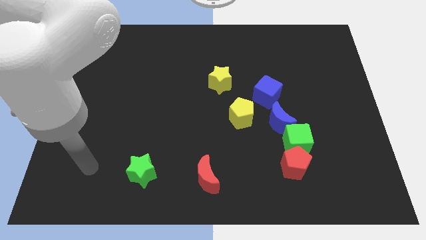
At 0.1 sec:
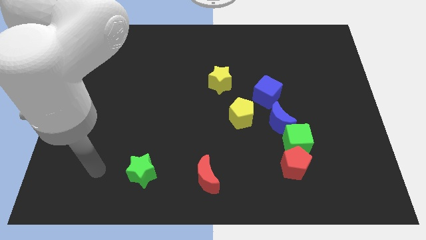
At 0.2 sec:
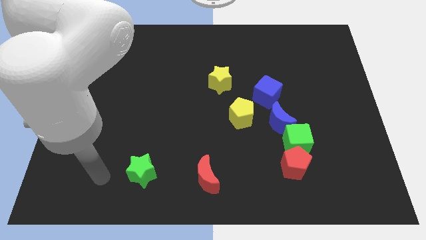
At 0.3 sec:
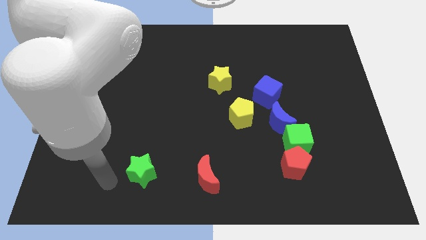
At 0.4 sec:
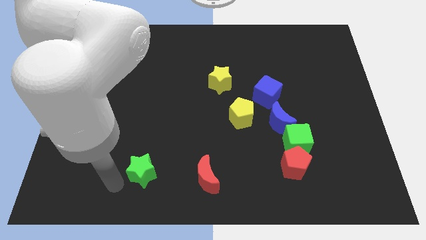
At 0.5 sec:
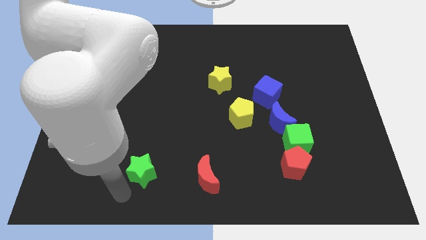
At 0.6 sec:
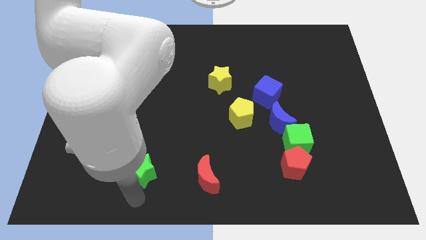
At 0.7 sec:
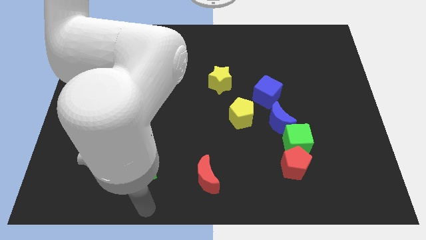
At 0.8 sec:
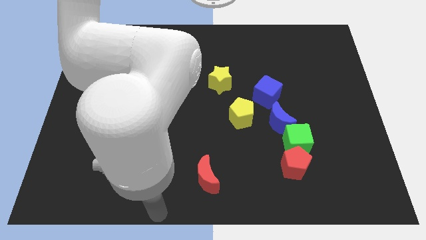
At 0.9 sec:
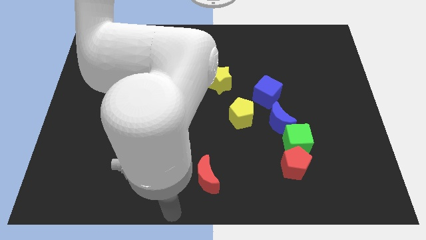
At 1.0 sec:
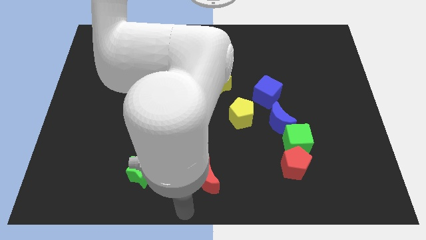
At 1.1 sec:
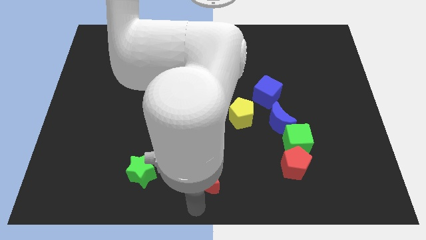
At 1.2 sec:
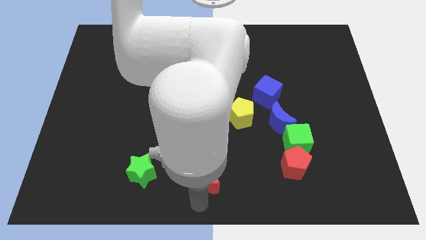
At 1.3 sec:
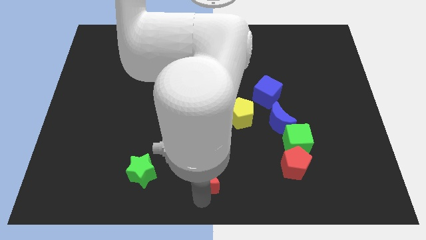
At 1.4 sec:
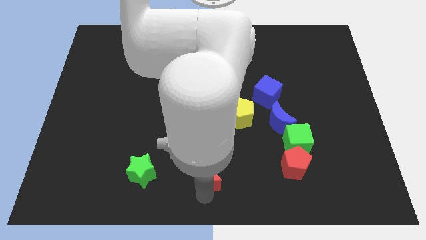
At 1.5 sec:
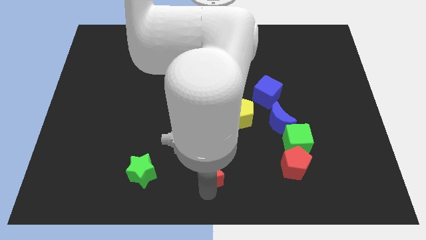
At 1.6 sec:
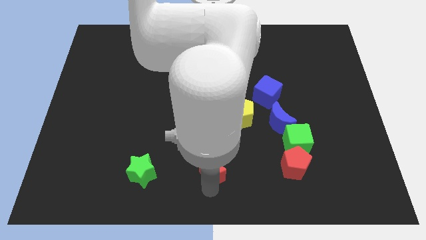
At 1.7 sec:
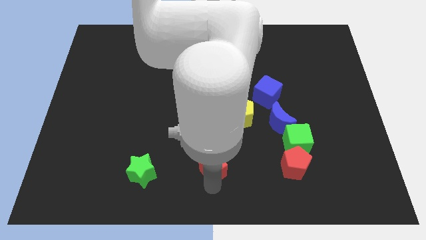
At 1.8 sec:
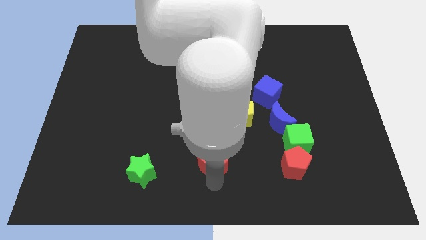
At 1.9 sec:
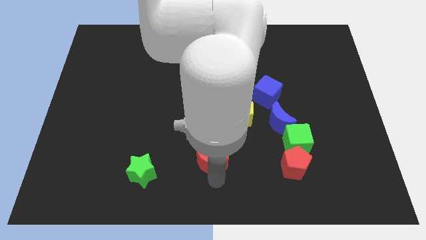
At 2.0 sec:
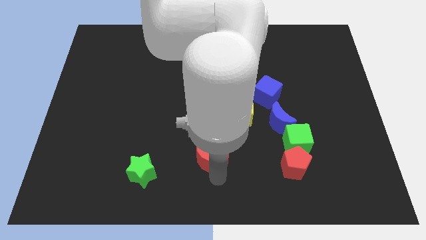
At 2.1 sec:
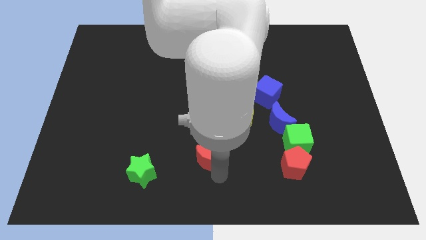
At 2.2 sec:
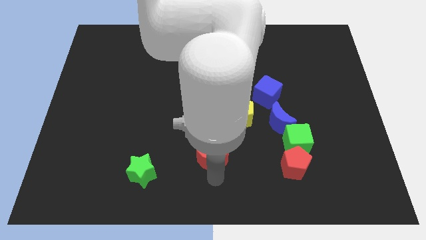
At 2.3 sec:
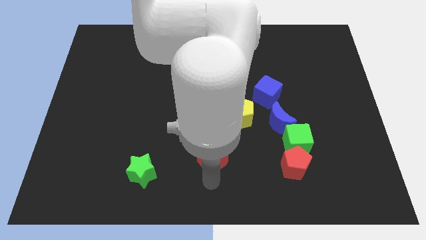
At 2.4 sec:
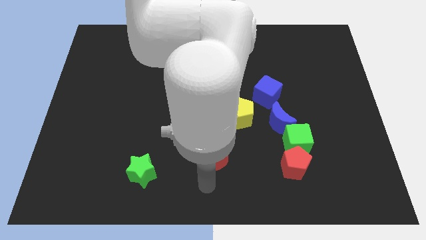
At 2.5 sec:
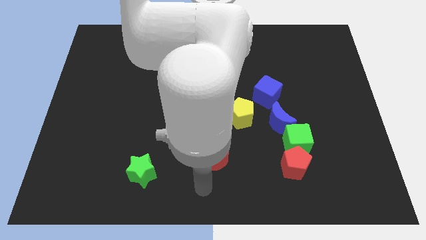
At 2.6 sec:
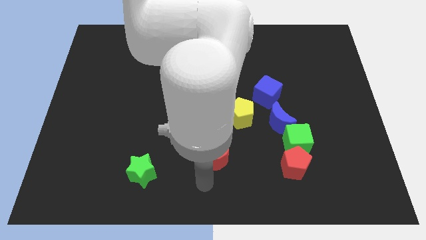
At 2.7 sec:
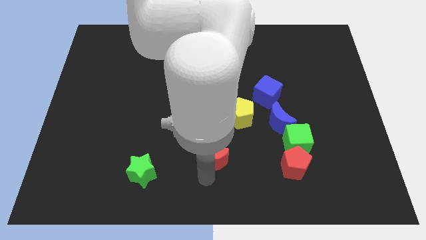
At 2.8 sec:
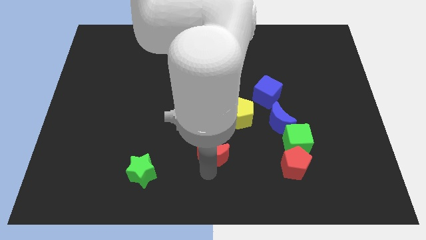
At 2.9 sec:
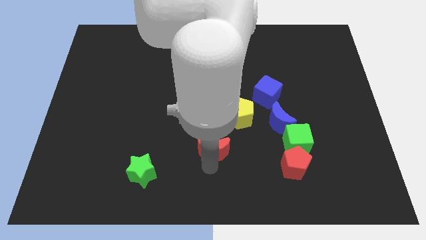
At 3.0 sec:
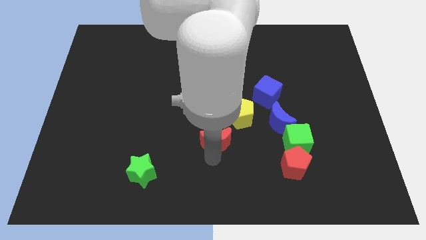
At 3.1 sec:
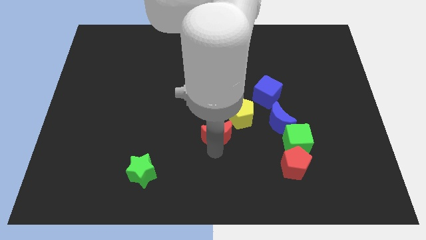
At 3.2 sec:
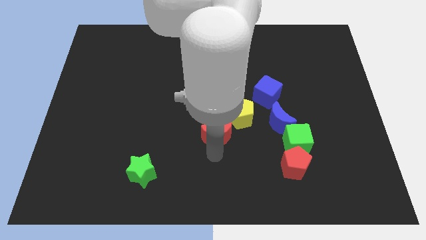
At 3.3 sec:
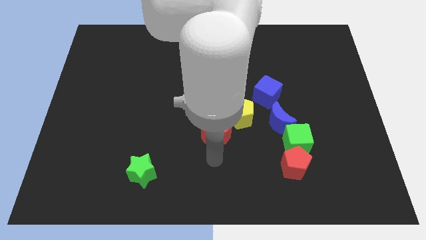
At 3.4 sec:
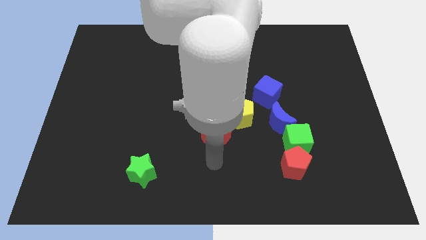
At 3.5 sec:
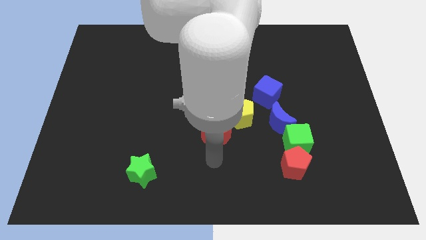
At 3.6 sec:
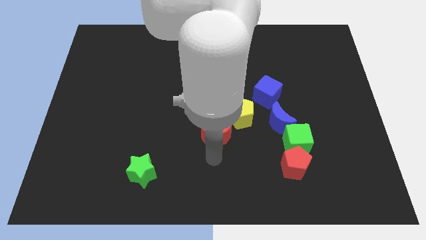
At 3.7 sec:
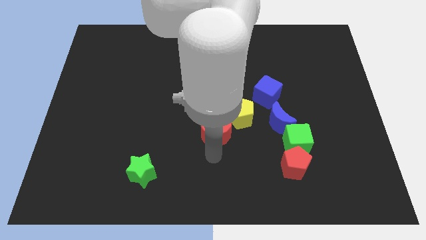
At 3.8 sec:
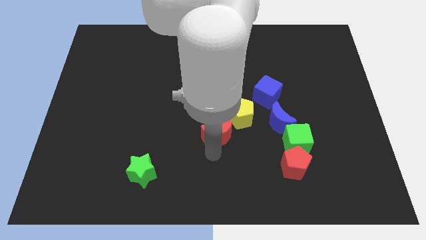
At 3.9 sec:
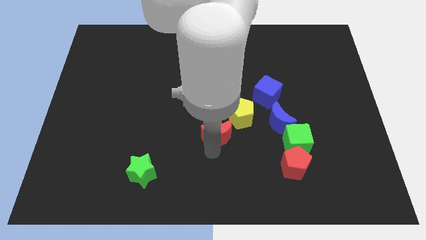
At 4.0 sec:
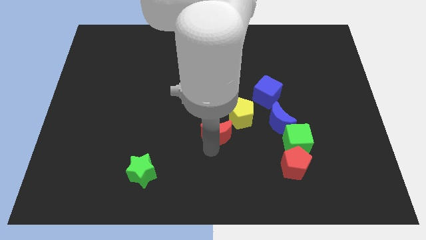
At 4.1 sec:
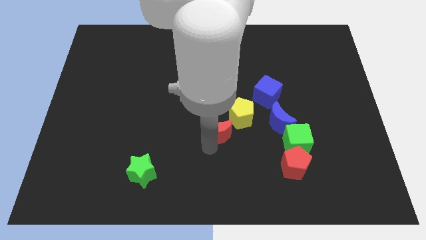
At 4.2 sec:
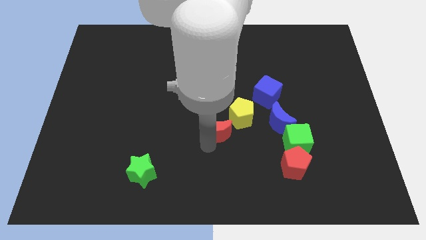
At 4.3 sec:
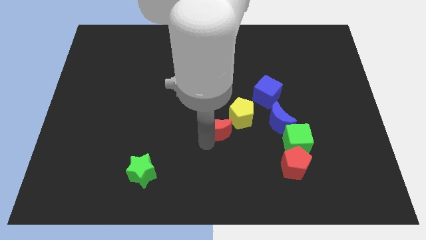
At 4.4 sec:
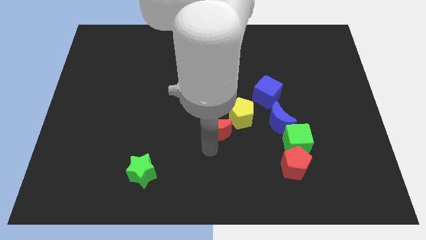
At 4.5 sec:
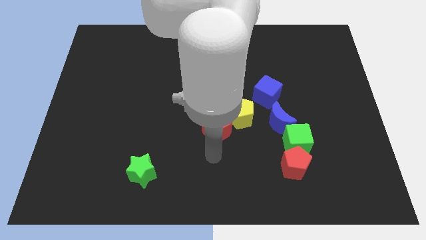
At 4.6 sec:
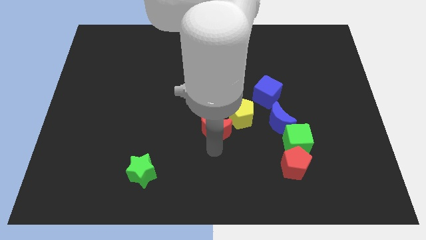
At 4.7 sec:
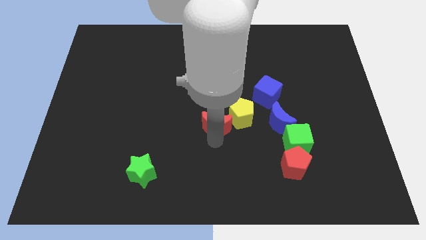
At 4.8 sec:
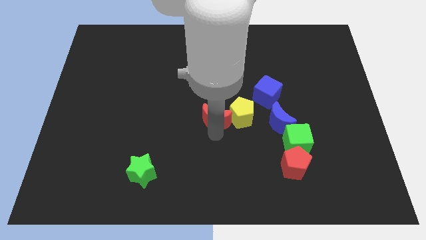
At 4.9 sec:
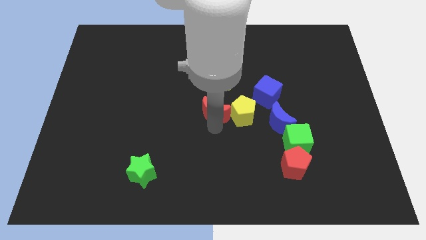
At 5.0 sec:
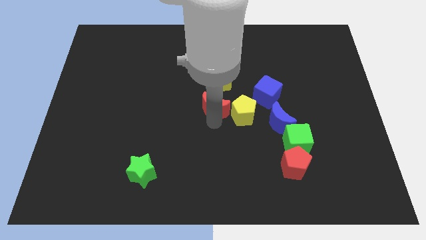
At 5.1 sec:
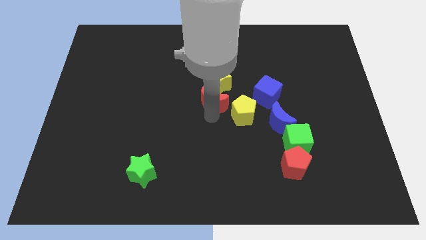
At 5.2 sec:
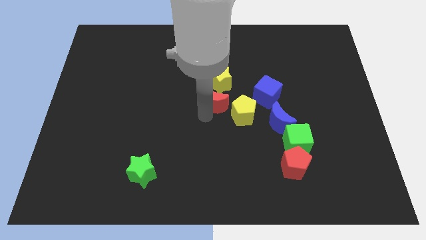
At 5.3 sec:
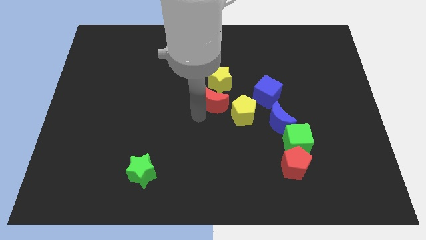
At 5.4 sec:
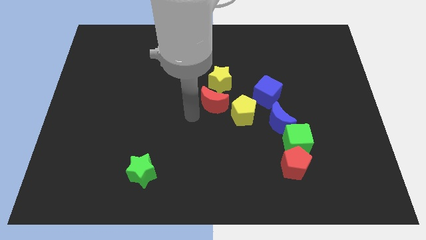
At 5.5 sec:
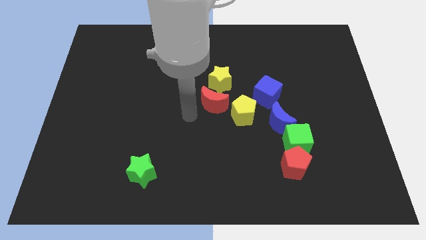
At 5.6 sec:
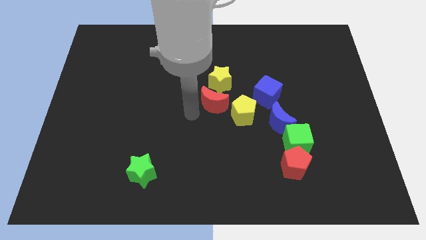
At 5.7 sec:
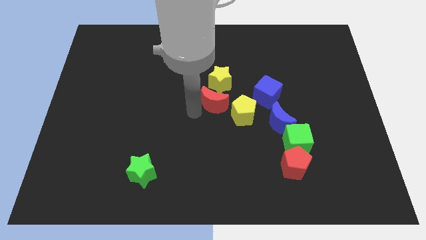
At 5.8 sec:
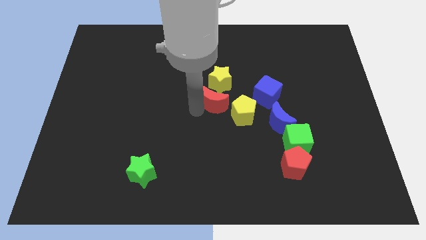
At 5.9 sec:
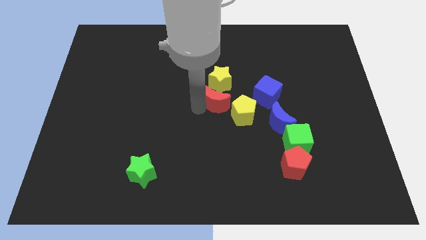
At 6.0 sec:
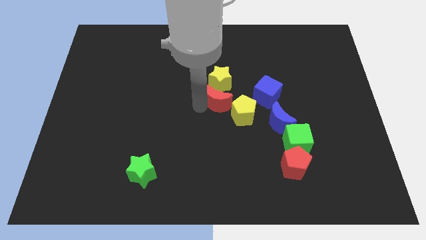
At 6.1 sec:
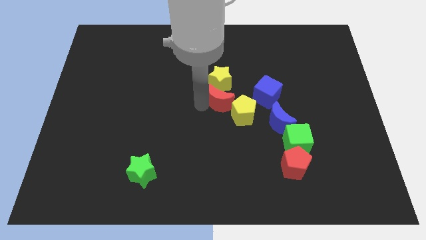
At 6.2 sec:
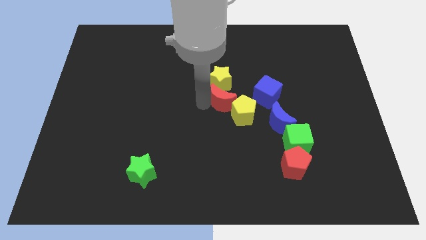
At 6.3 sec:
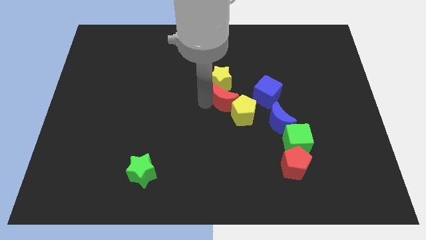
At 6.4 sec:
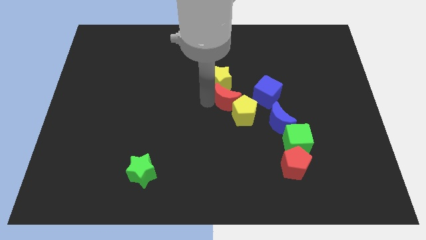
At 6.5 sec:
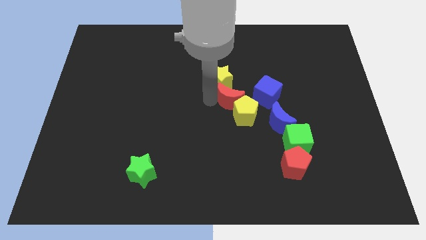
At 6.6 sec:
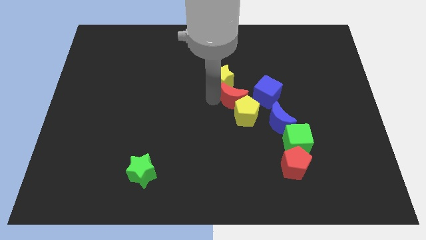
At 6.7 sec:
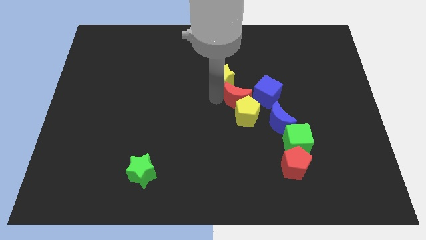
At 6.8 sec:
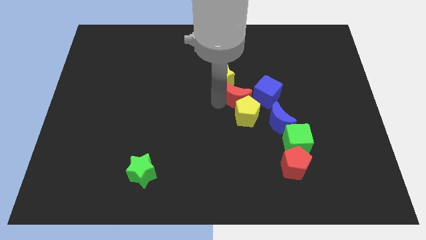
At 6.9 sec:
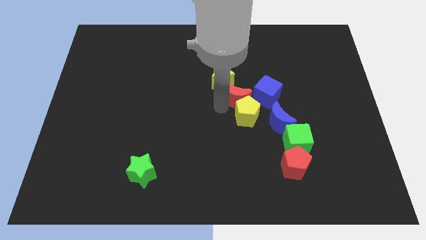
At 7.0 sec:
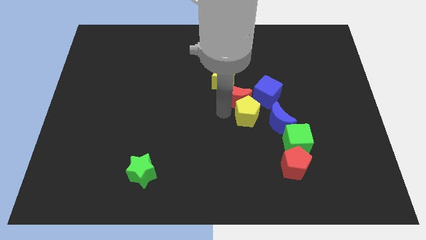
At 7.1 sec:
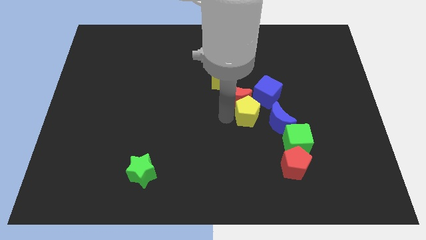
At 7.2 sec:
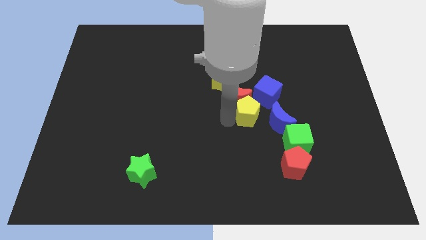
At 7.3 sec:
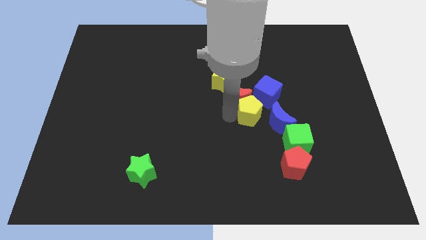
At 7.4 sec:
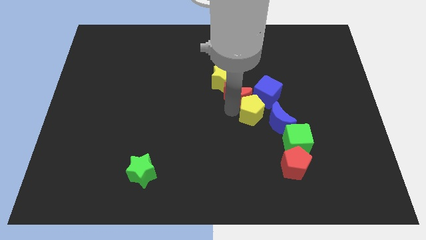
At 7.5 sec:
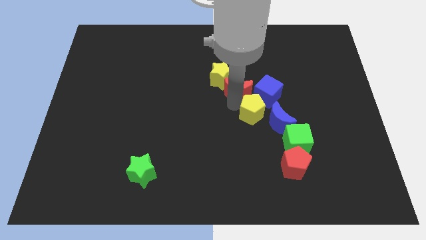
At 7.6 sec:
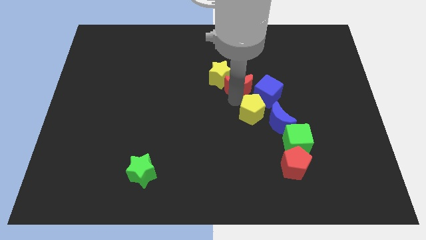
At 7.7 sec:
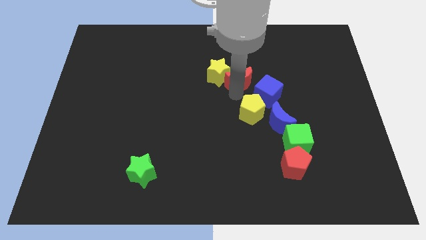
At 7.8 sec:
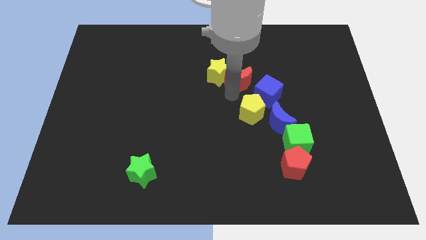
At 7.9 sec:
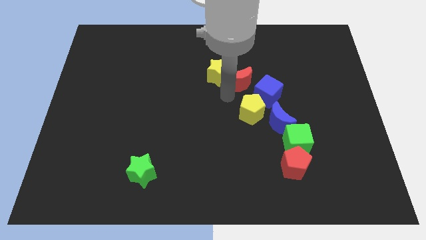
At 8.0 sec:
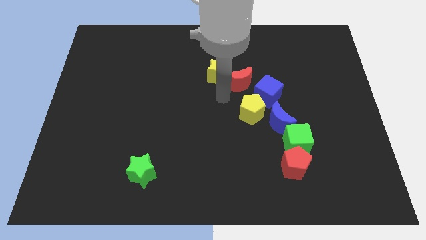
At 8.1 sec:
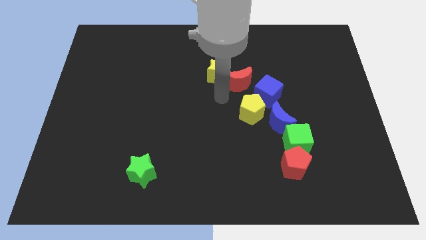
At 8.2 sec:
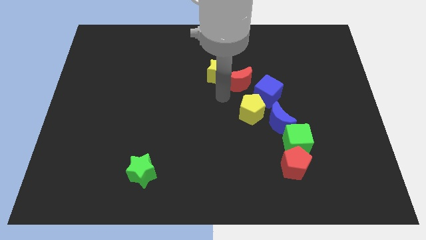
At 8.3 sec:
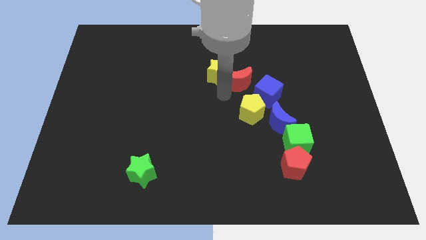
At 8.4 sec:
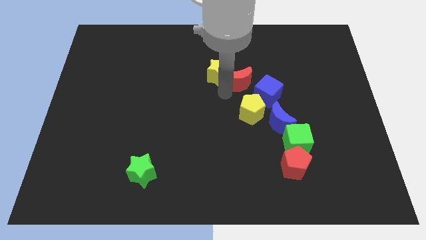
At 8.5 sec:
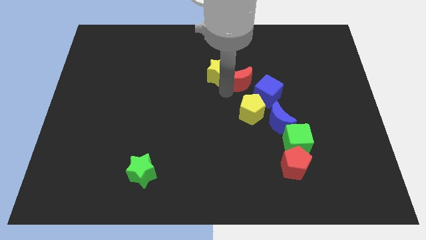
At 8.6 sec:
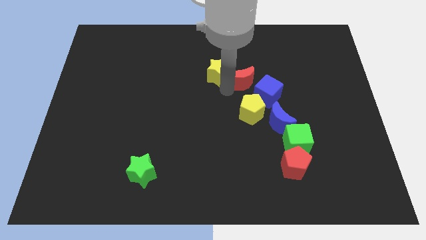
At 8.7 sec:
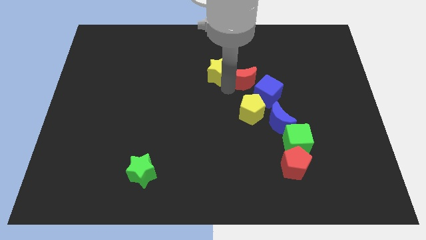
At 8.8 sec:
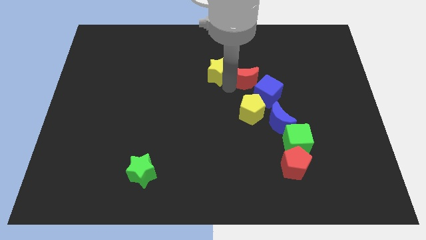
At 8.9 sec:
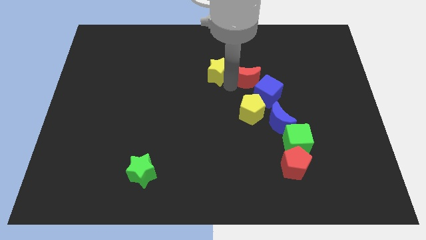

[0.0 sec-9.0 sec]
push the red moon to the top side of the blue cube
